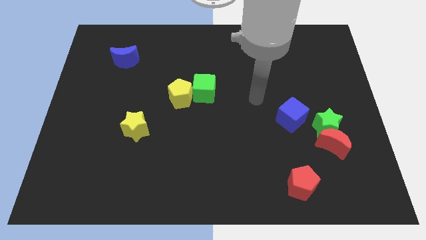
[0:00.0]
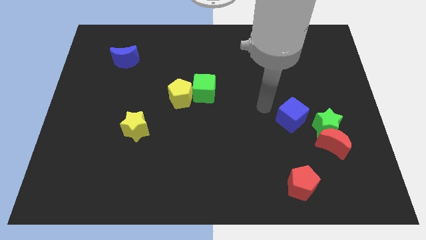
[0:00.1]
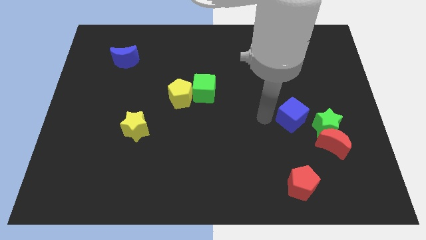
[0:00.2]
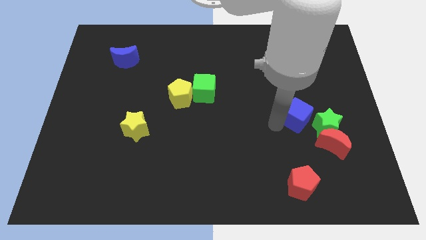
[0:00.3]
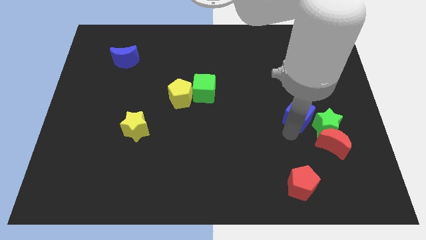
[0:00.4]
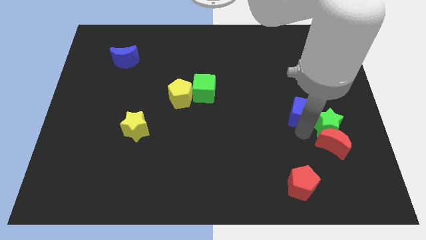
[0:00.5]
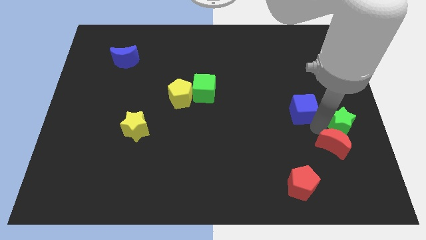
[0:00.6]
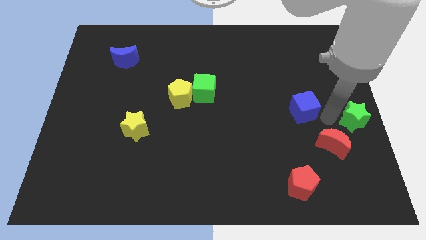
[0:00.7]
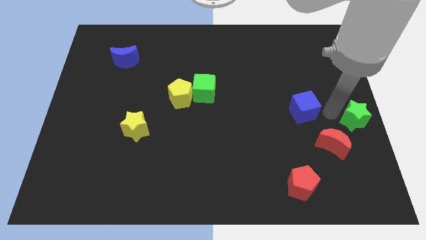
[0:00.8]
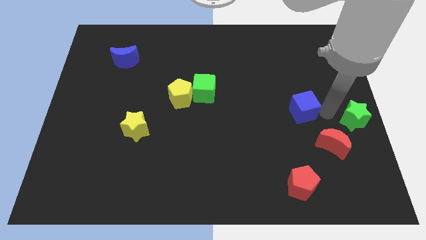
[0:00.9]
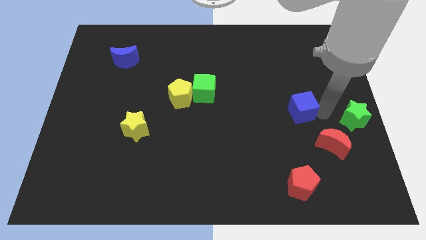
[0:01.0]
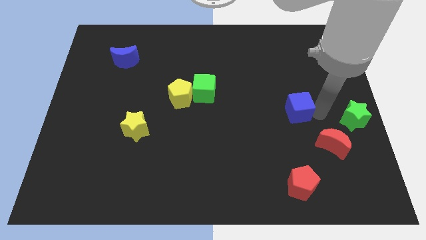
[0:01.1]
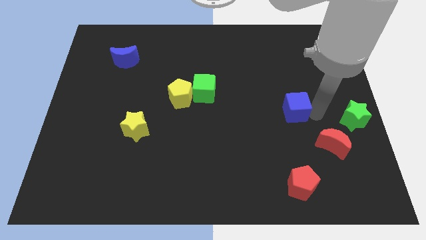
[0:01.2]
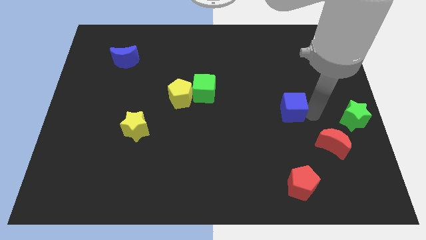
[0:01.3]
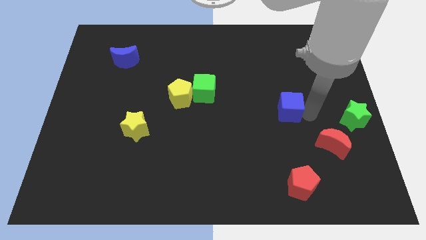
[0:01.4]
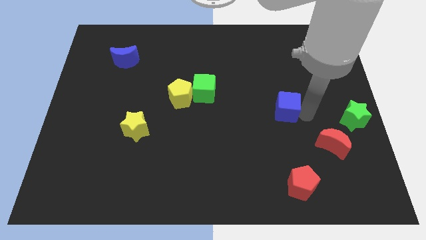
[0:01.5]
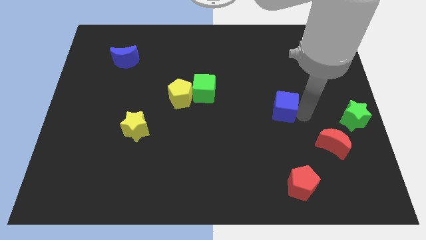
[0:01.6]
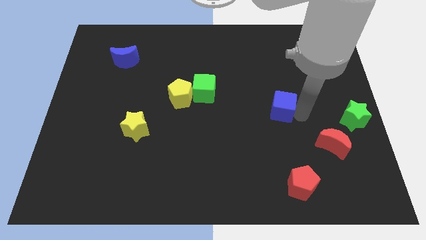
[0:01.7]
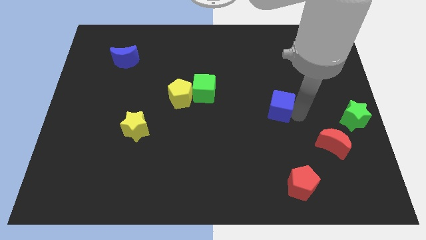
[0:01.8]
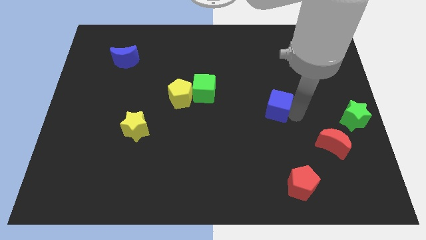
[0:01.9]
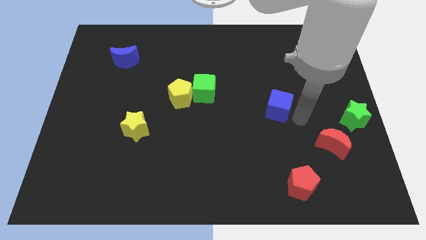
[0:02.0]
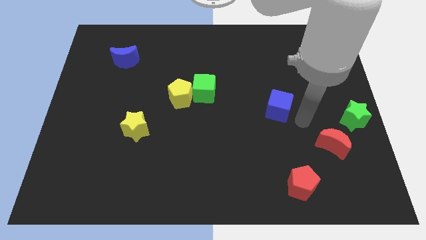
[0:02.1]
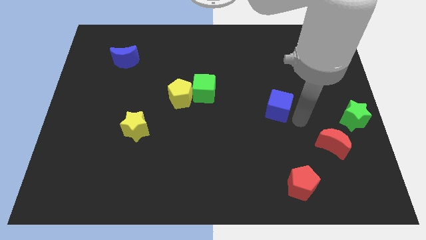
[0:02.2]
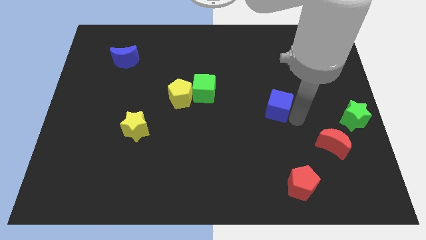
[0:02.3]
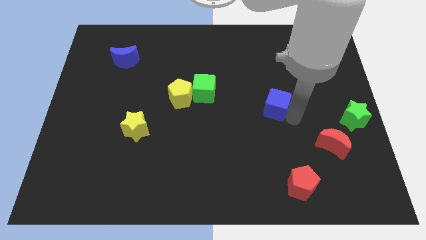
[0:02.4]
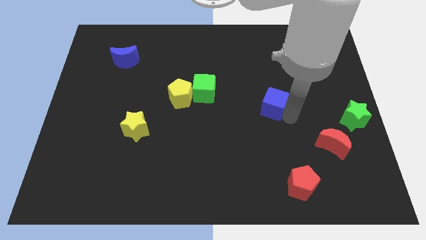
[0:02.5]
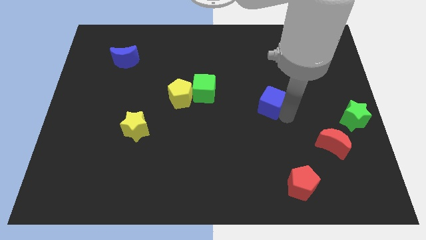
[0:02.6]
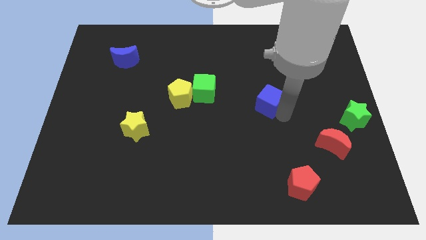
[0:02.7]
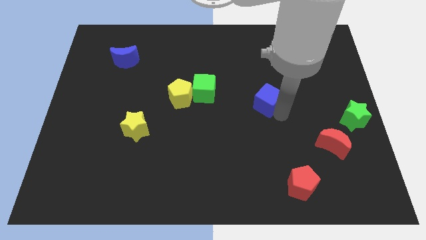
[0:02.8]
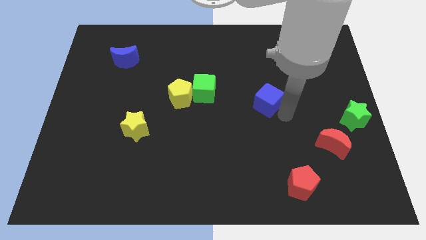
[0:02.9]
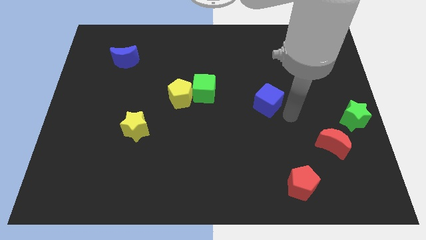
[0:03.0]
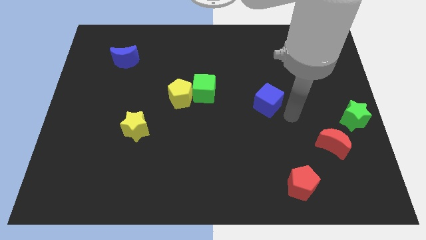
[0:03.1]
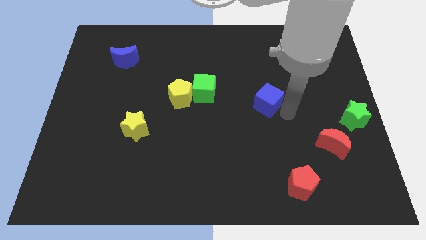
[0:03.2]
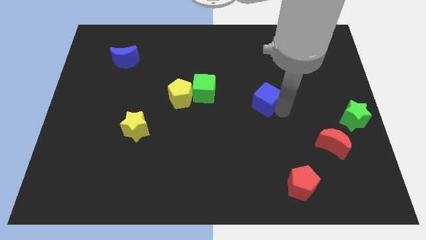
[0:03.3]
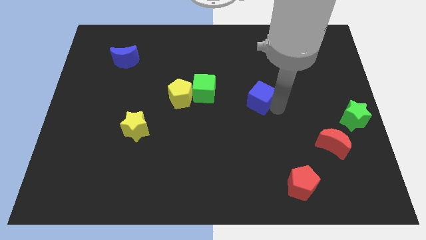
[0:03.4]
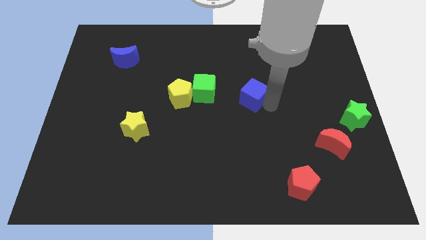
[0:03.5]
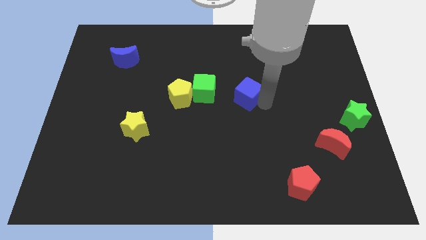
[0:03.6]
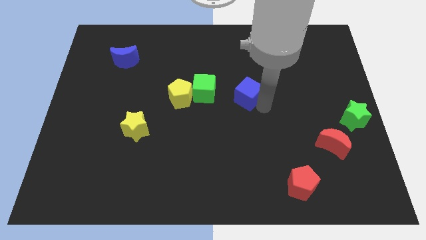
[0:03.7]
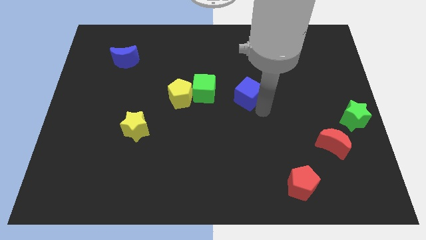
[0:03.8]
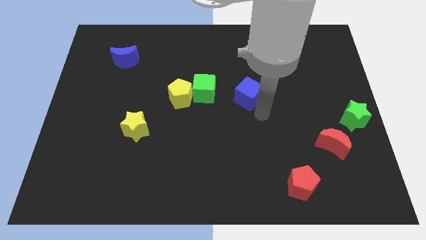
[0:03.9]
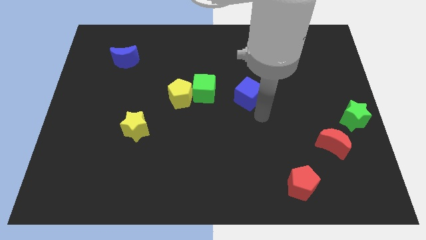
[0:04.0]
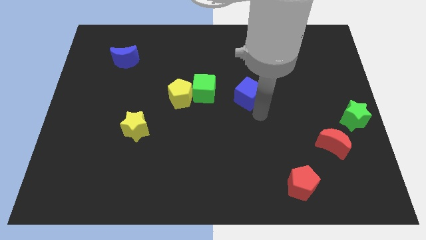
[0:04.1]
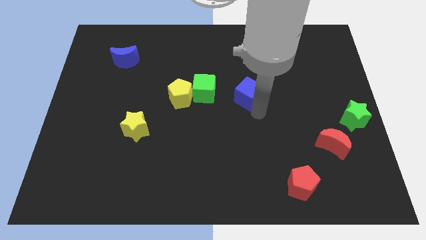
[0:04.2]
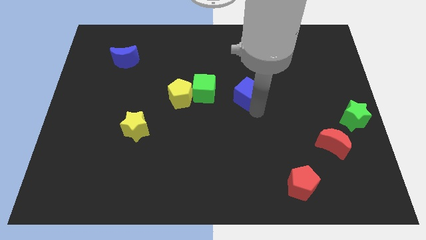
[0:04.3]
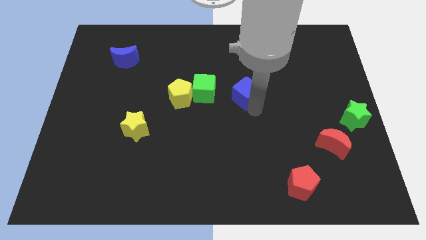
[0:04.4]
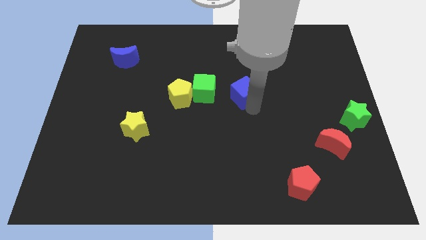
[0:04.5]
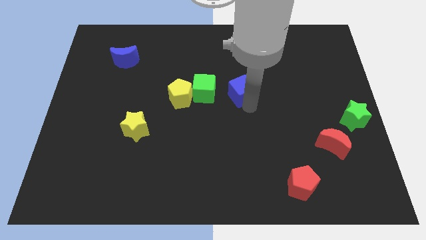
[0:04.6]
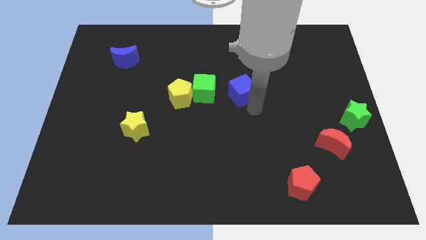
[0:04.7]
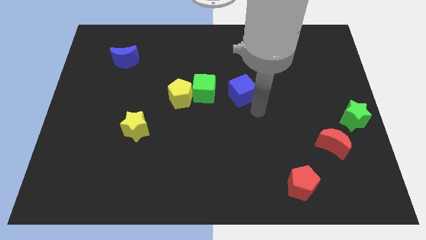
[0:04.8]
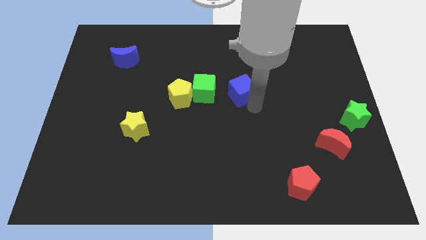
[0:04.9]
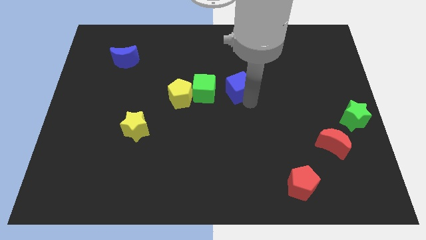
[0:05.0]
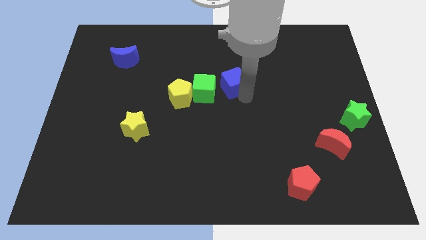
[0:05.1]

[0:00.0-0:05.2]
slide the blue cube to the top right side of the green cube

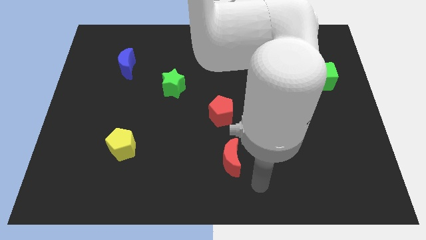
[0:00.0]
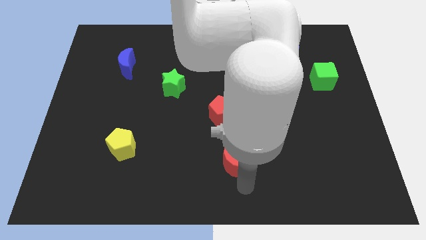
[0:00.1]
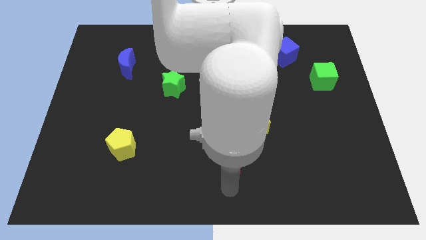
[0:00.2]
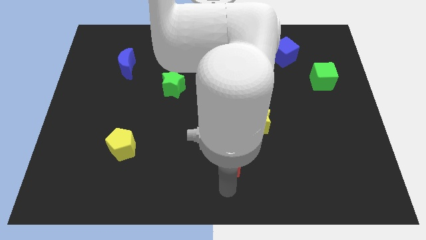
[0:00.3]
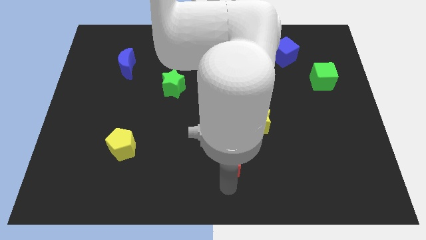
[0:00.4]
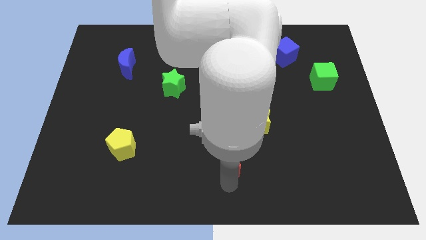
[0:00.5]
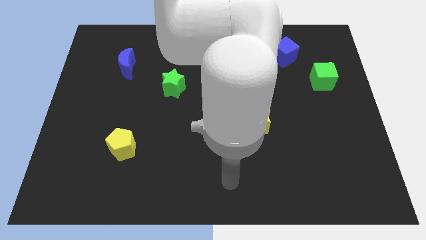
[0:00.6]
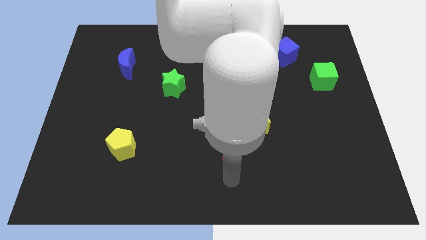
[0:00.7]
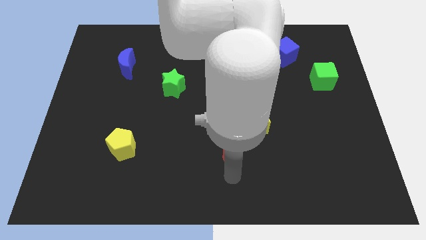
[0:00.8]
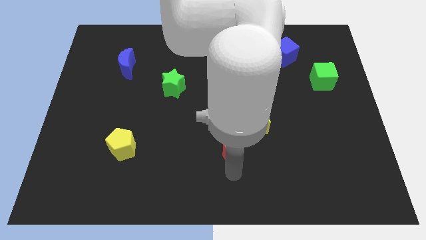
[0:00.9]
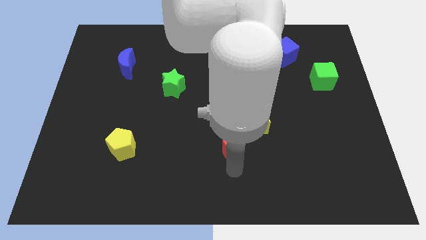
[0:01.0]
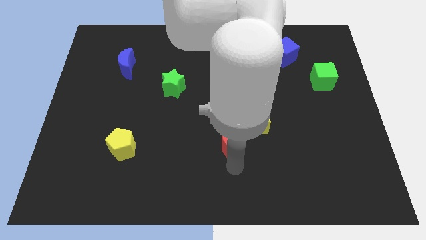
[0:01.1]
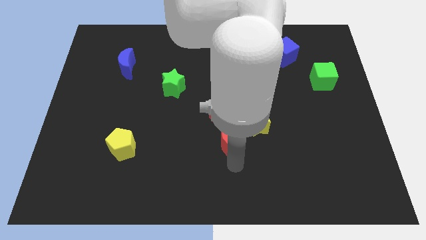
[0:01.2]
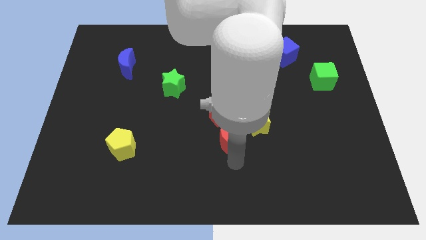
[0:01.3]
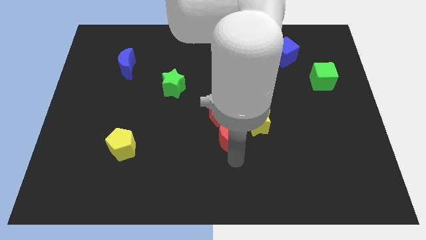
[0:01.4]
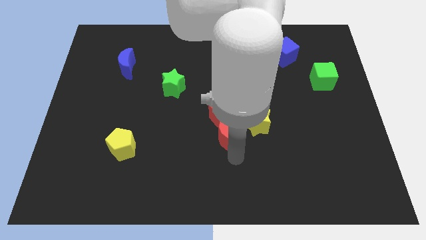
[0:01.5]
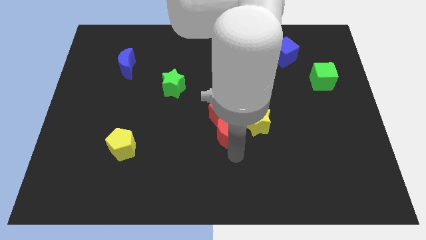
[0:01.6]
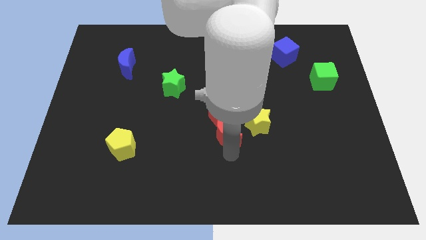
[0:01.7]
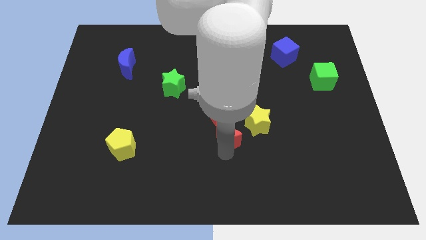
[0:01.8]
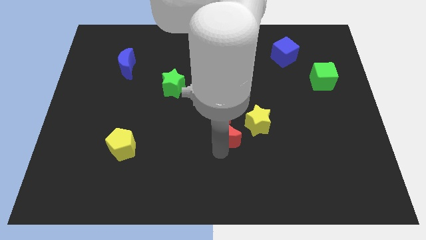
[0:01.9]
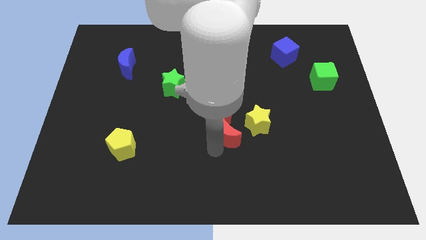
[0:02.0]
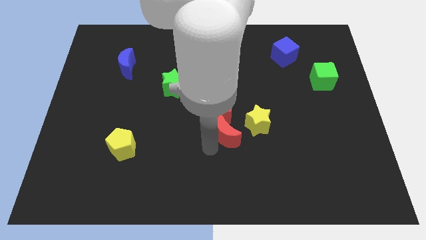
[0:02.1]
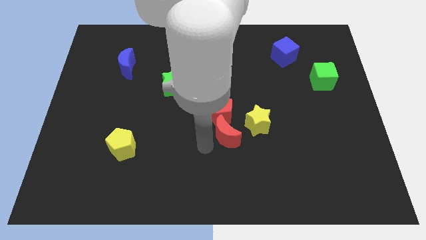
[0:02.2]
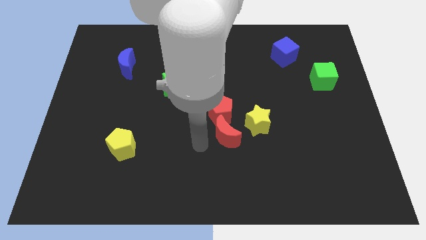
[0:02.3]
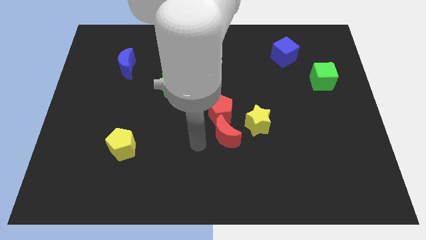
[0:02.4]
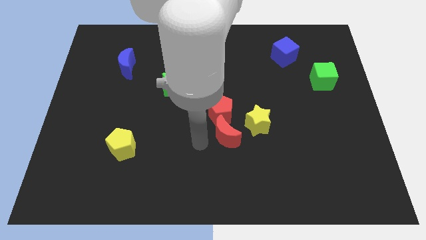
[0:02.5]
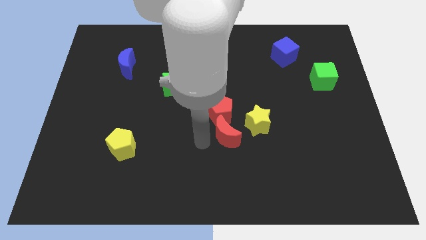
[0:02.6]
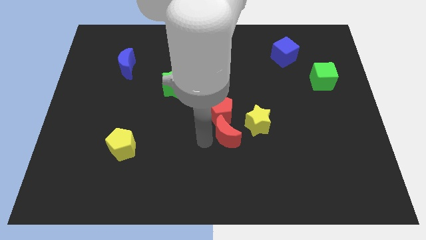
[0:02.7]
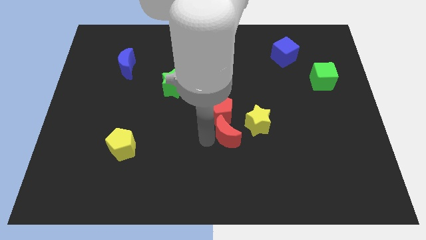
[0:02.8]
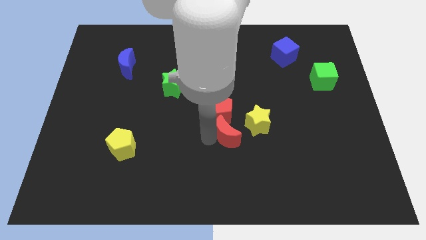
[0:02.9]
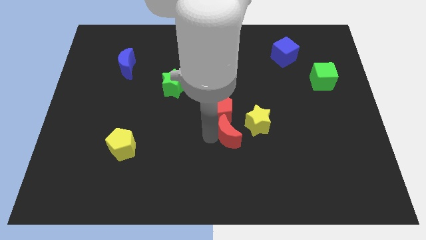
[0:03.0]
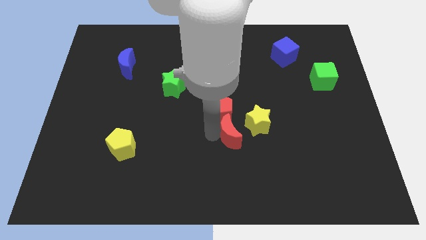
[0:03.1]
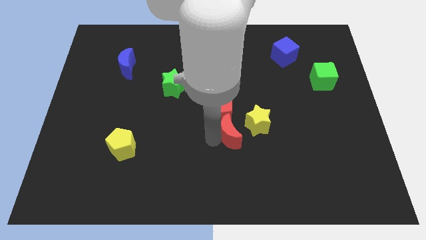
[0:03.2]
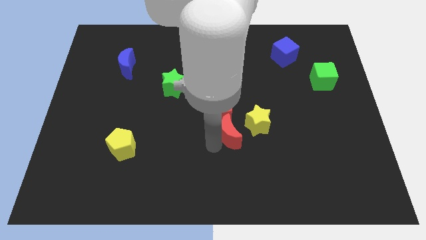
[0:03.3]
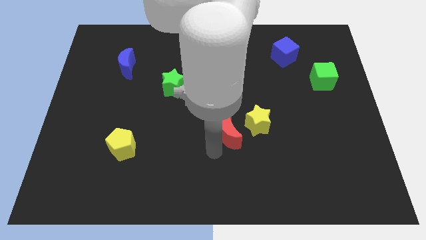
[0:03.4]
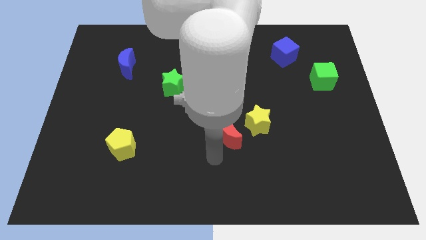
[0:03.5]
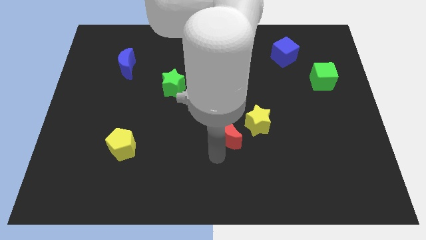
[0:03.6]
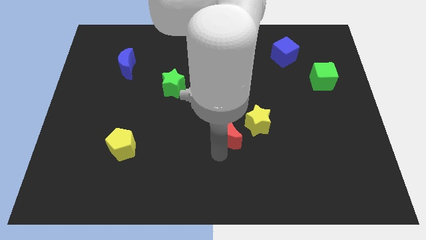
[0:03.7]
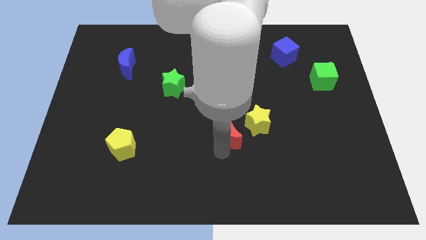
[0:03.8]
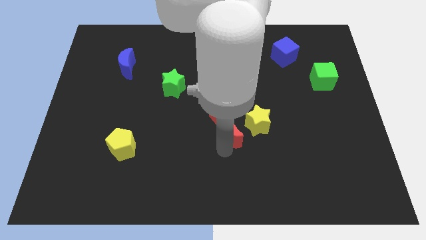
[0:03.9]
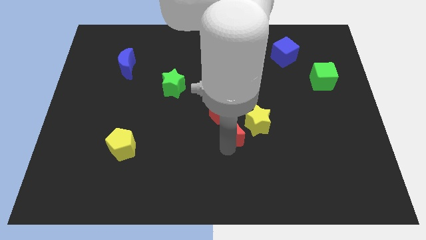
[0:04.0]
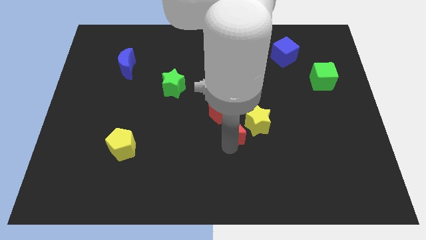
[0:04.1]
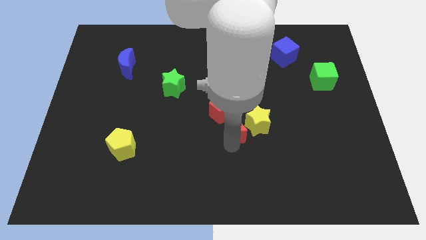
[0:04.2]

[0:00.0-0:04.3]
push the red moon diagonally up and to the left of the yellow star
